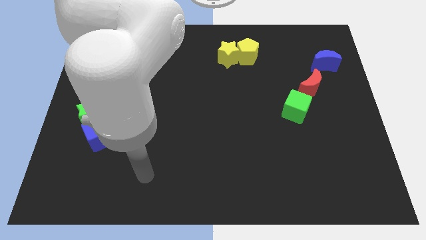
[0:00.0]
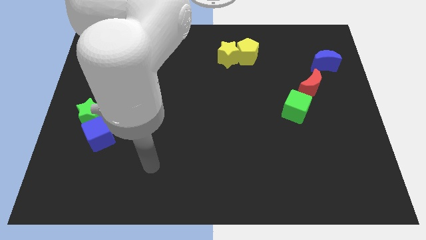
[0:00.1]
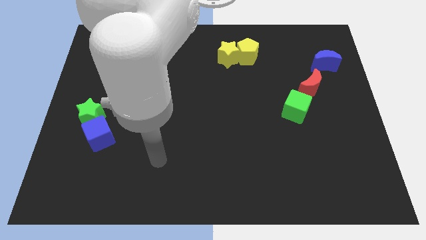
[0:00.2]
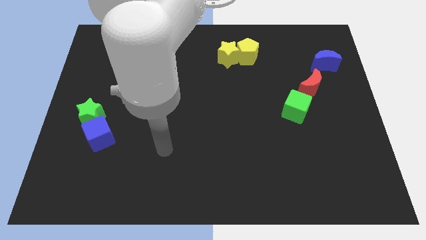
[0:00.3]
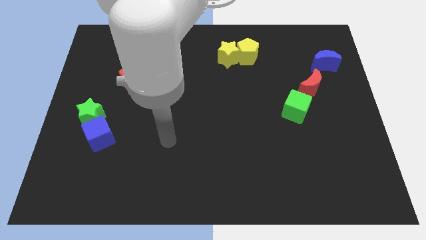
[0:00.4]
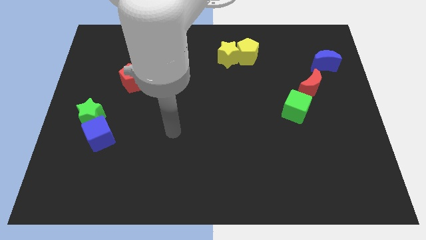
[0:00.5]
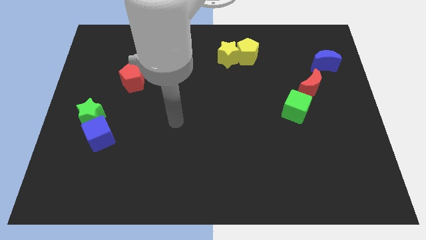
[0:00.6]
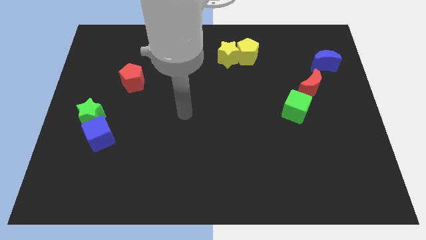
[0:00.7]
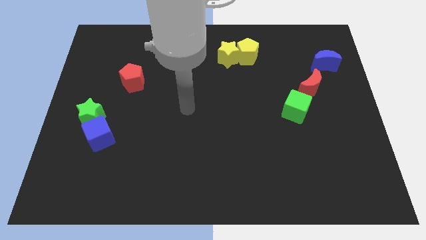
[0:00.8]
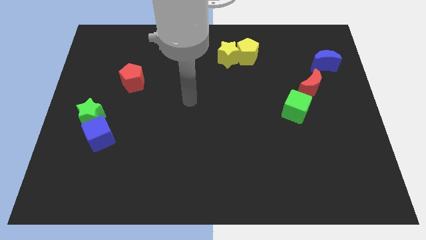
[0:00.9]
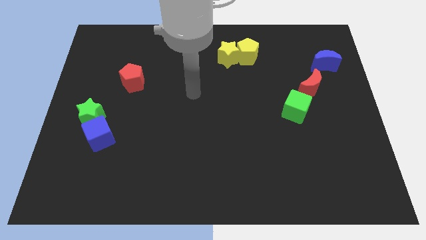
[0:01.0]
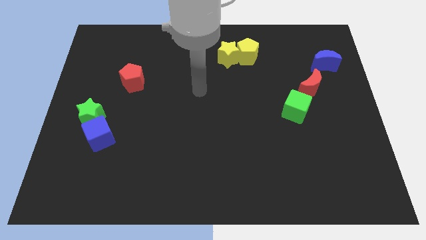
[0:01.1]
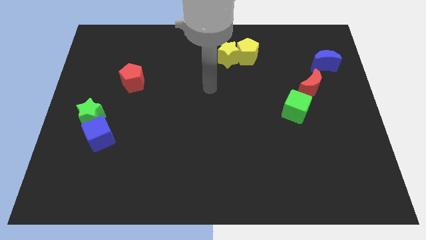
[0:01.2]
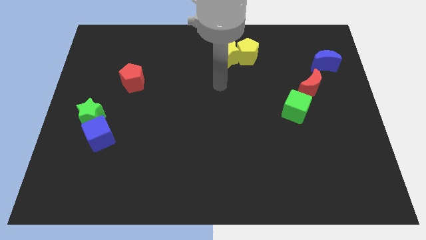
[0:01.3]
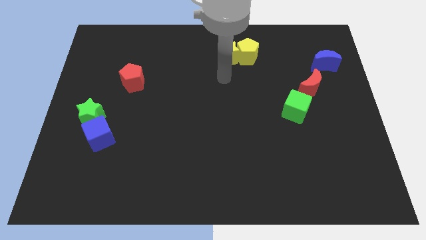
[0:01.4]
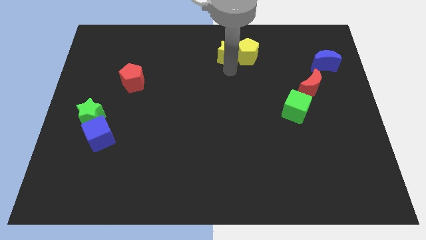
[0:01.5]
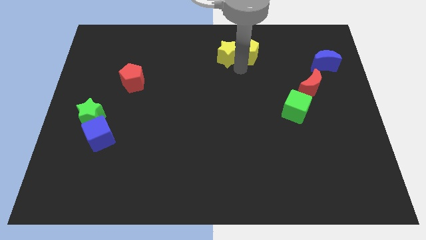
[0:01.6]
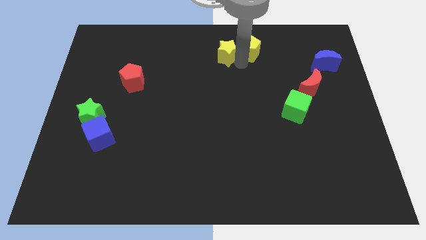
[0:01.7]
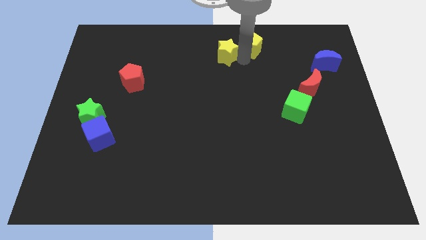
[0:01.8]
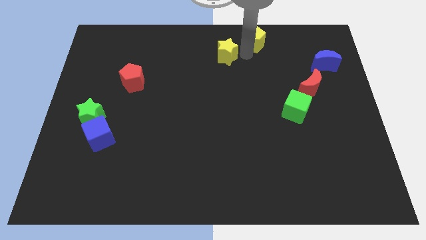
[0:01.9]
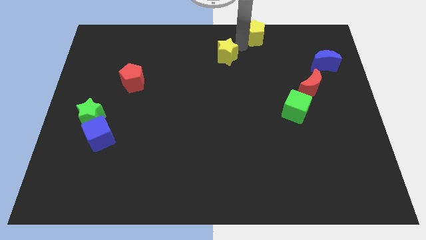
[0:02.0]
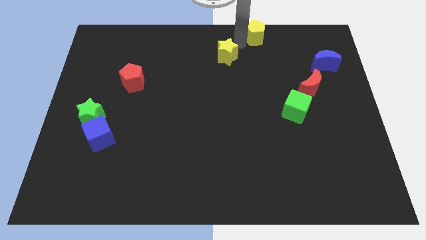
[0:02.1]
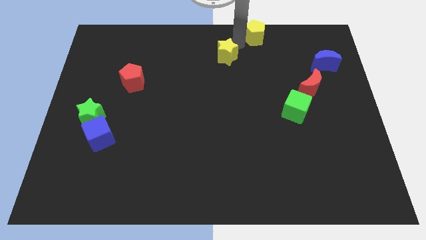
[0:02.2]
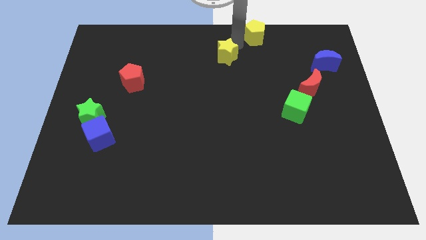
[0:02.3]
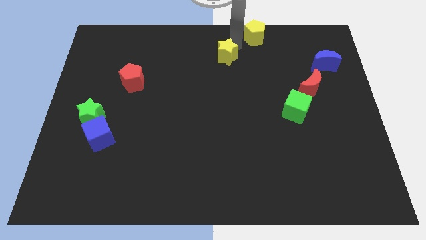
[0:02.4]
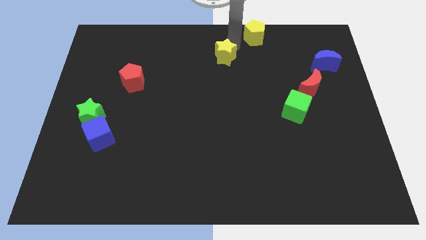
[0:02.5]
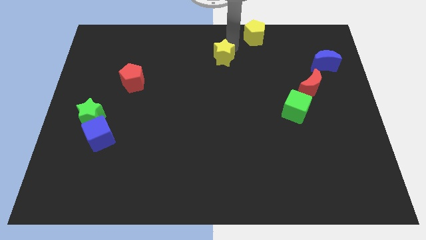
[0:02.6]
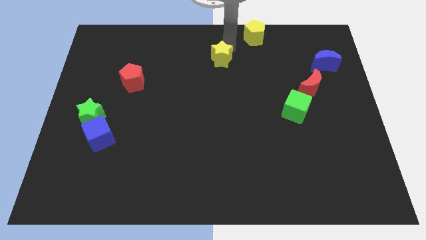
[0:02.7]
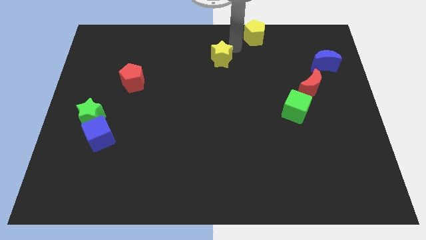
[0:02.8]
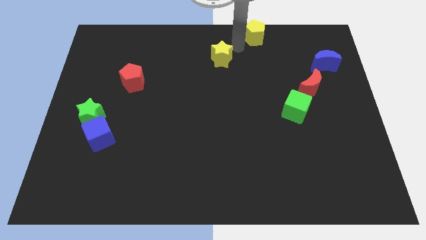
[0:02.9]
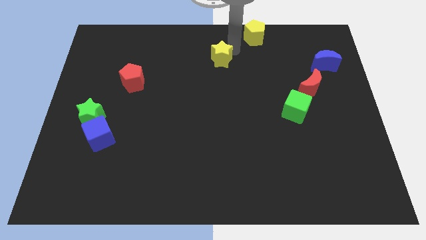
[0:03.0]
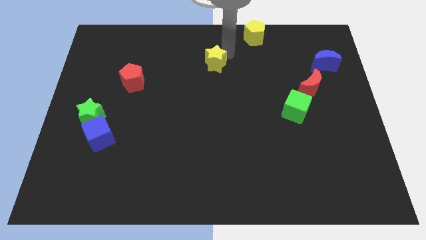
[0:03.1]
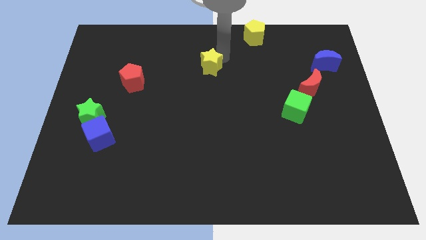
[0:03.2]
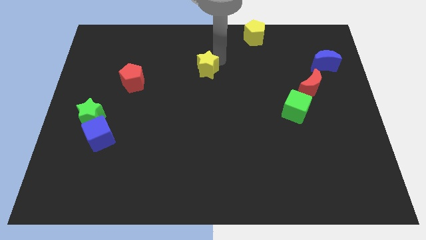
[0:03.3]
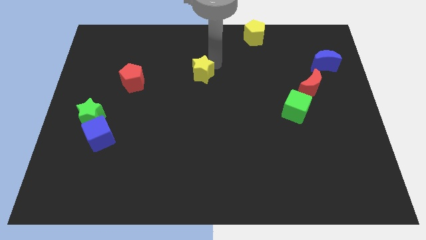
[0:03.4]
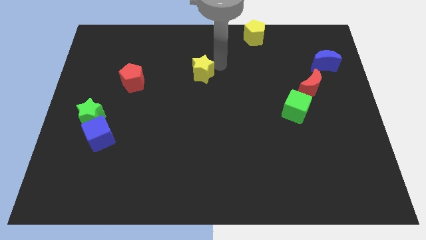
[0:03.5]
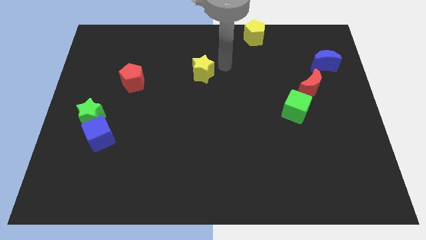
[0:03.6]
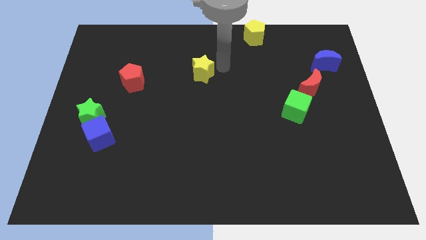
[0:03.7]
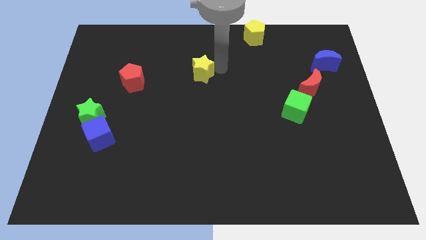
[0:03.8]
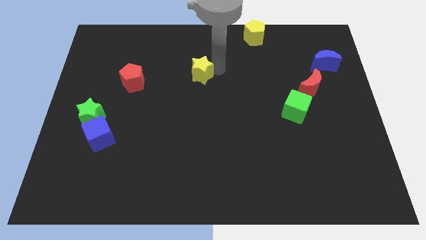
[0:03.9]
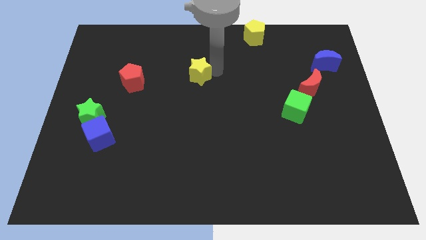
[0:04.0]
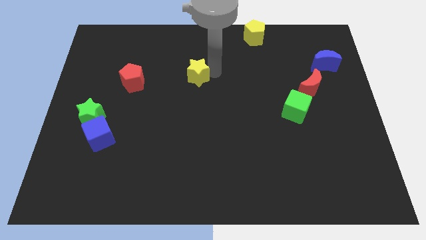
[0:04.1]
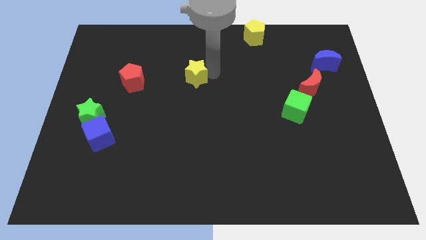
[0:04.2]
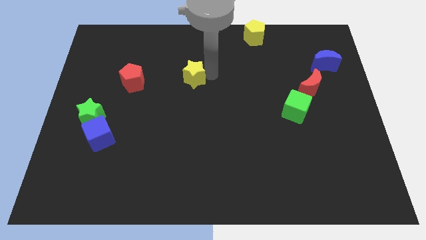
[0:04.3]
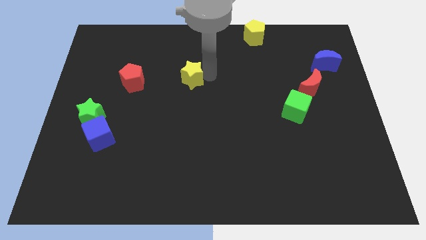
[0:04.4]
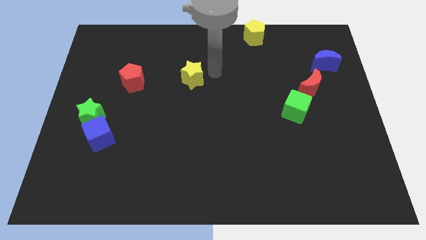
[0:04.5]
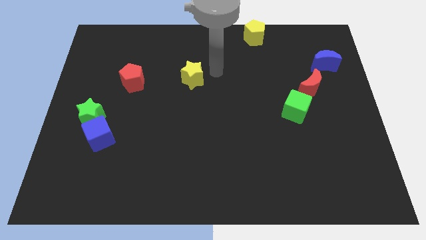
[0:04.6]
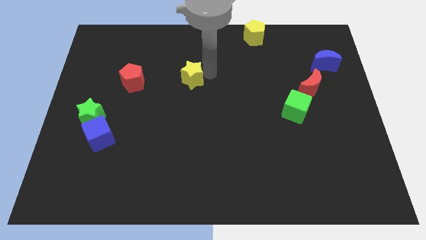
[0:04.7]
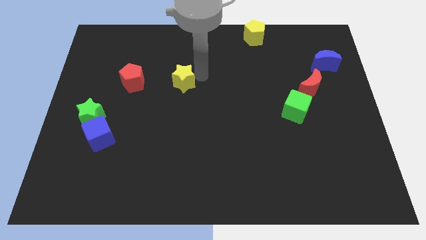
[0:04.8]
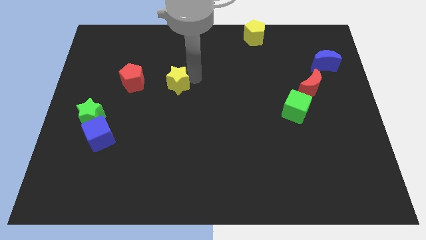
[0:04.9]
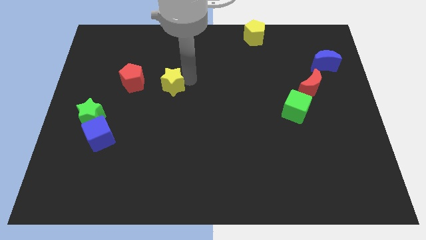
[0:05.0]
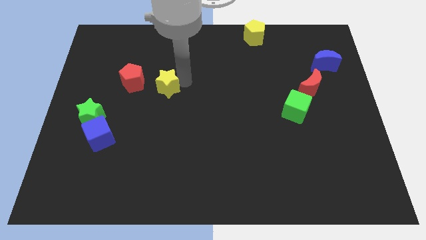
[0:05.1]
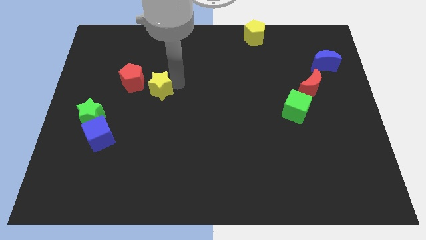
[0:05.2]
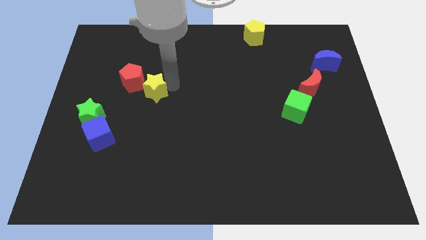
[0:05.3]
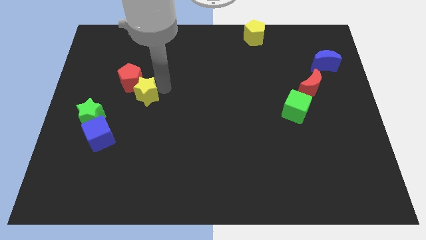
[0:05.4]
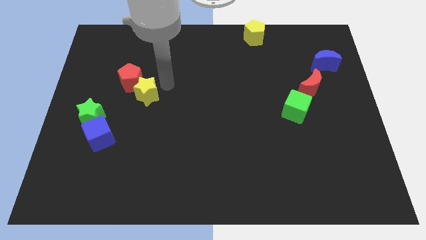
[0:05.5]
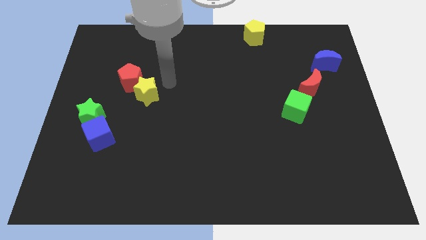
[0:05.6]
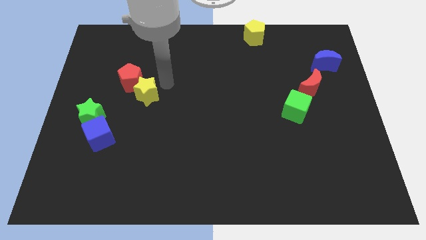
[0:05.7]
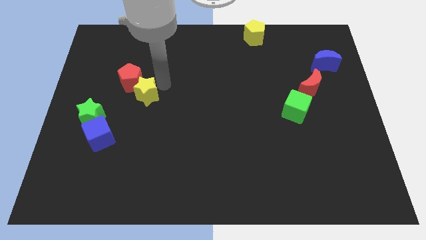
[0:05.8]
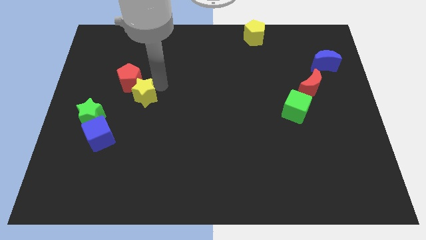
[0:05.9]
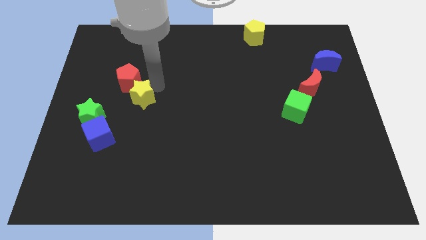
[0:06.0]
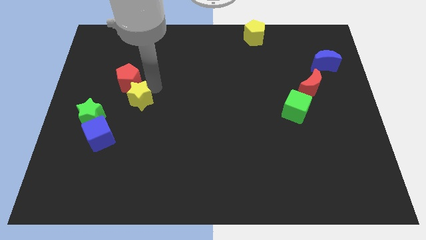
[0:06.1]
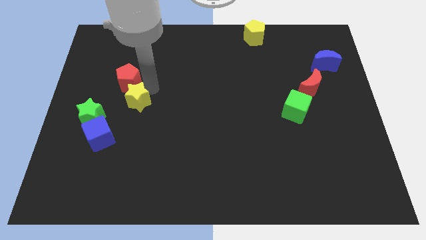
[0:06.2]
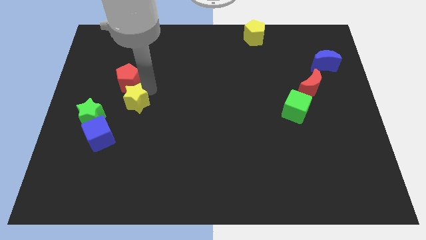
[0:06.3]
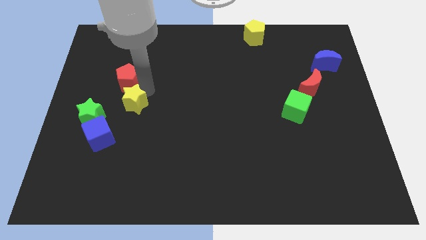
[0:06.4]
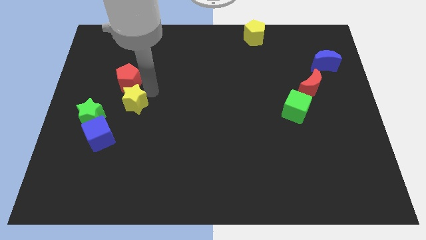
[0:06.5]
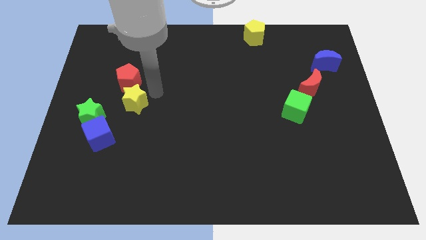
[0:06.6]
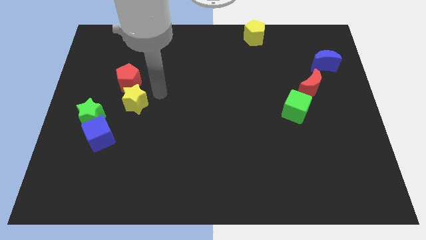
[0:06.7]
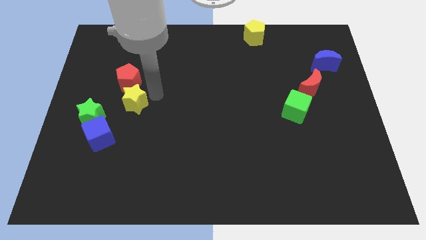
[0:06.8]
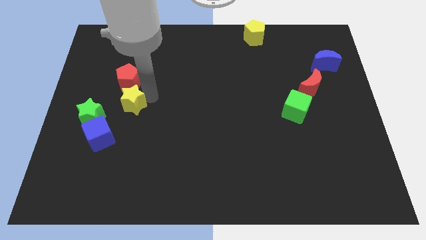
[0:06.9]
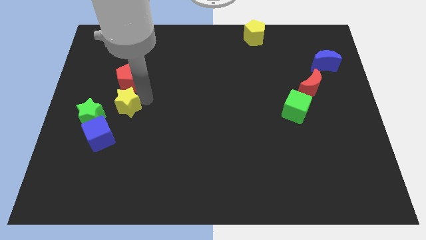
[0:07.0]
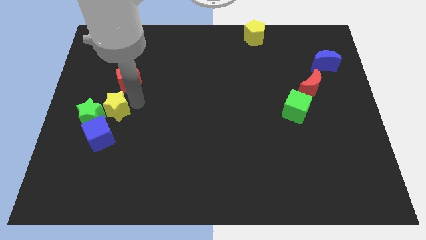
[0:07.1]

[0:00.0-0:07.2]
move the yellow star next to the green star
